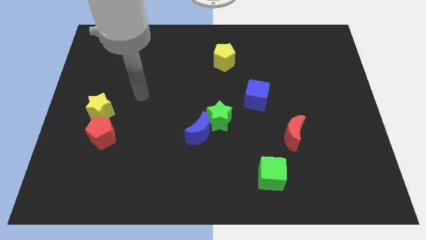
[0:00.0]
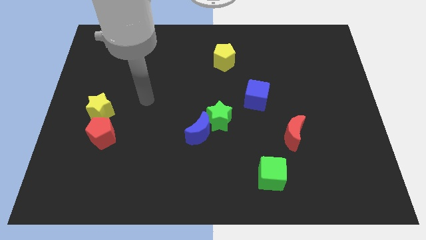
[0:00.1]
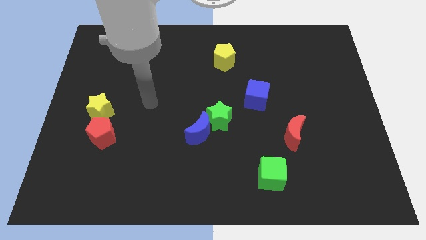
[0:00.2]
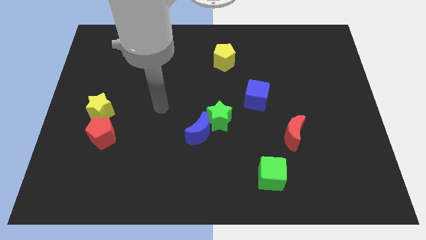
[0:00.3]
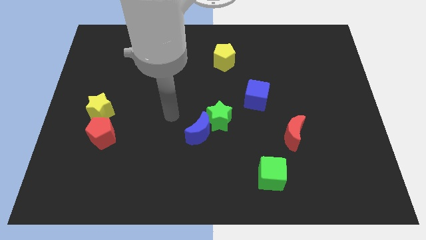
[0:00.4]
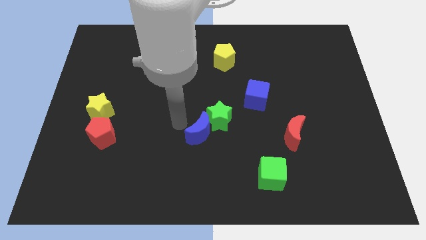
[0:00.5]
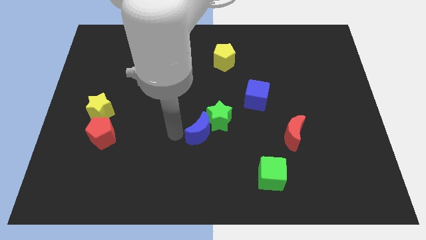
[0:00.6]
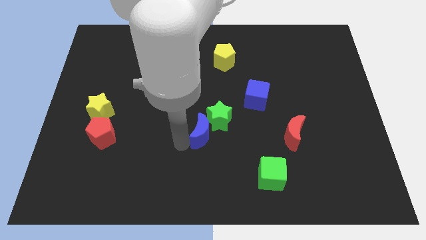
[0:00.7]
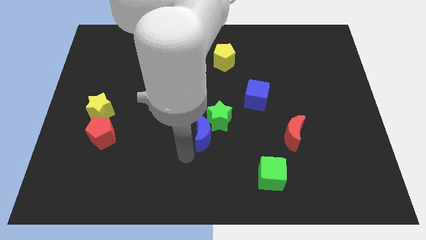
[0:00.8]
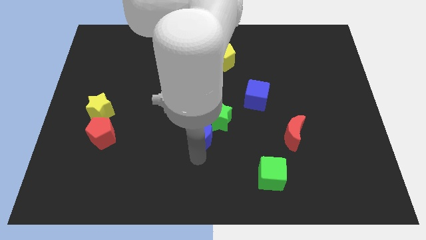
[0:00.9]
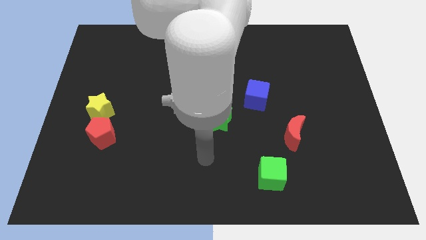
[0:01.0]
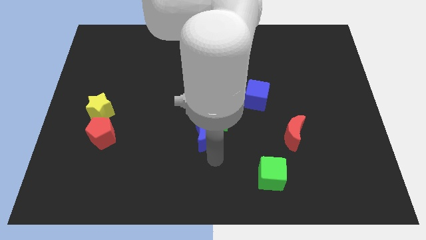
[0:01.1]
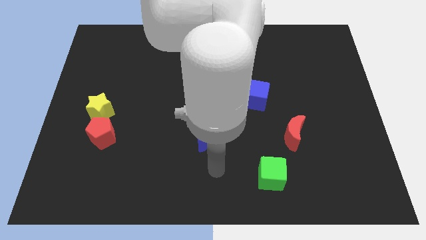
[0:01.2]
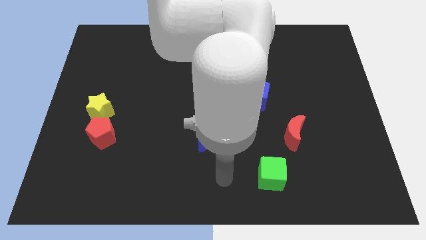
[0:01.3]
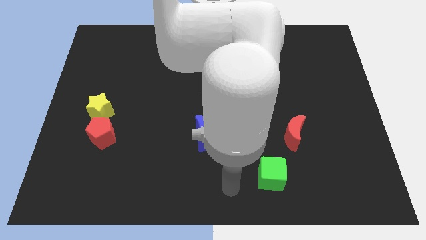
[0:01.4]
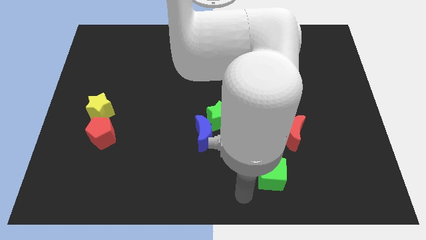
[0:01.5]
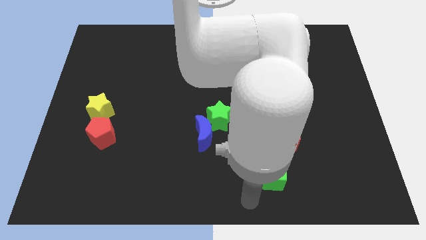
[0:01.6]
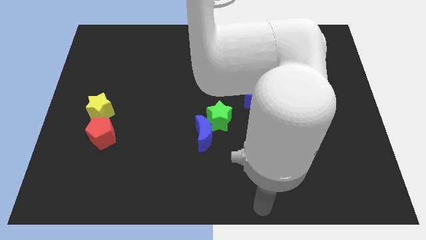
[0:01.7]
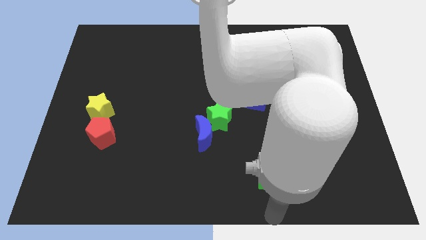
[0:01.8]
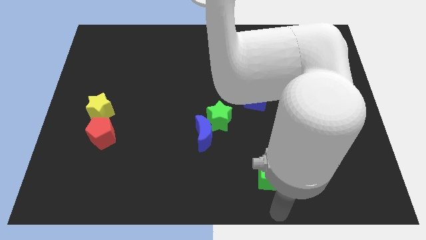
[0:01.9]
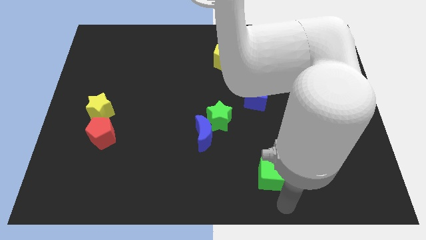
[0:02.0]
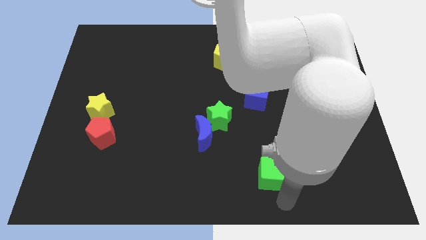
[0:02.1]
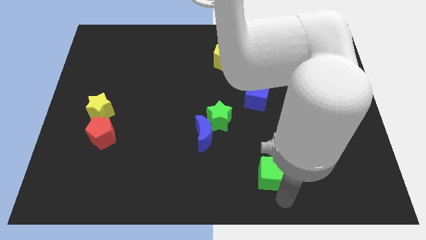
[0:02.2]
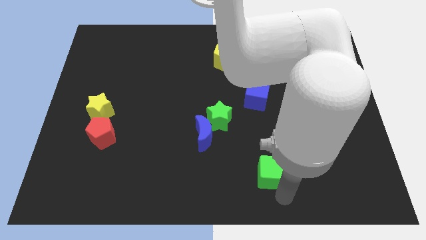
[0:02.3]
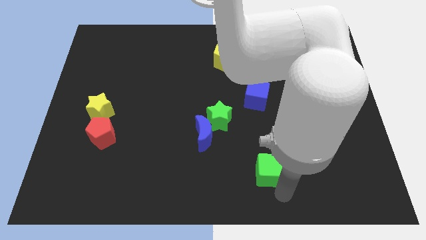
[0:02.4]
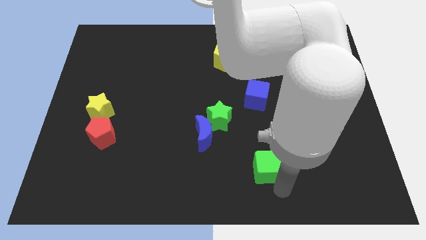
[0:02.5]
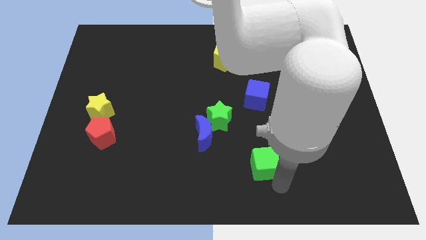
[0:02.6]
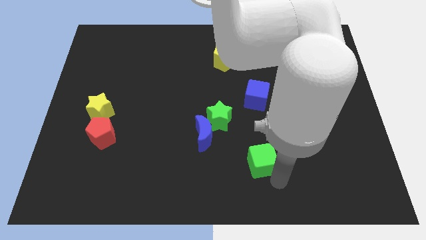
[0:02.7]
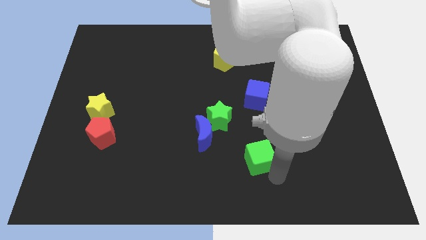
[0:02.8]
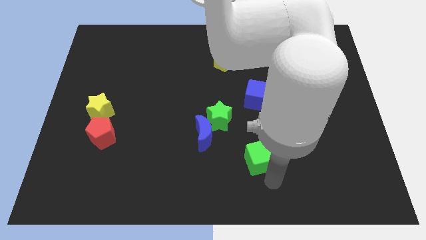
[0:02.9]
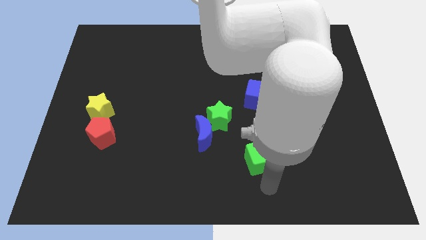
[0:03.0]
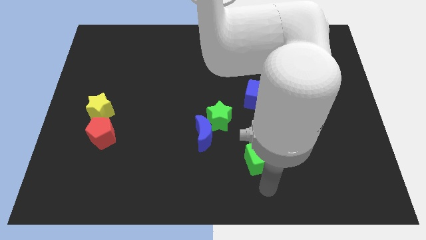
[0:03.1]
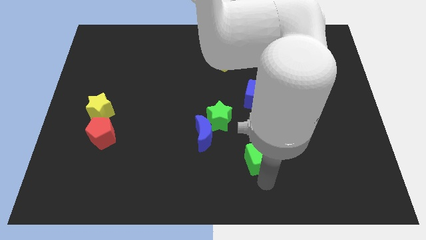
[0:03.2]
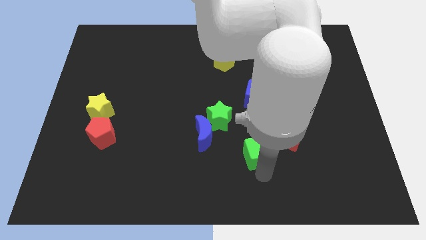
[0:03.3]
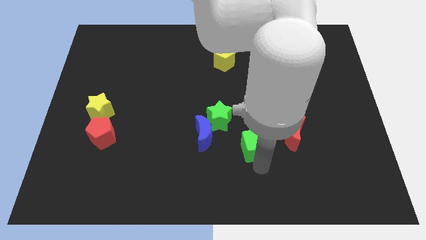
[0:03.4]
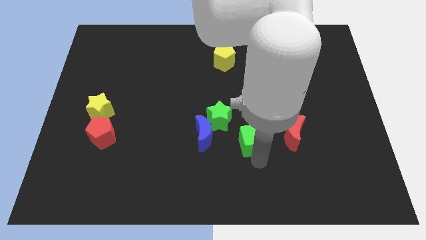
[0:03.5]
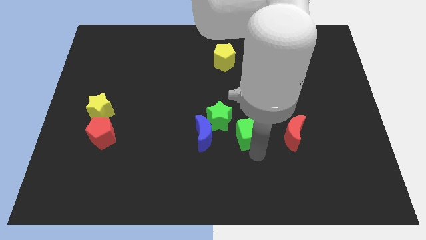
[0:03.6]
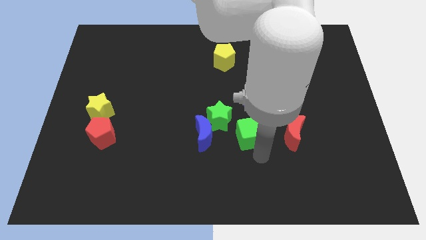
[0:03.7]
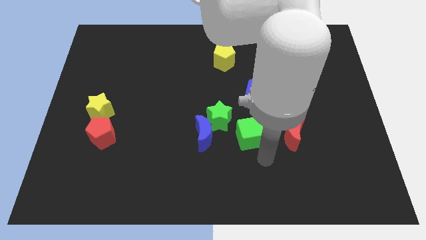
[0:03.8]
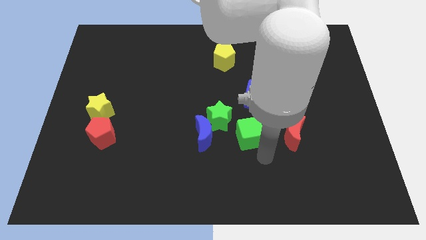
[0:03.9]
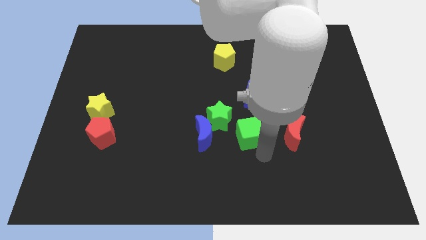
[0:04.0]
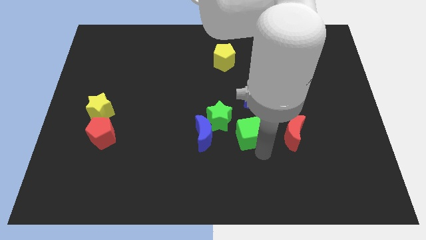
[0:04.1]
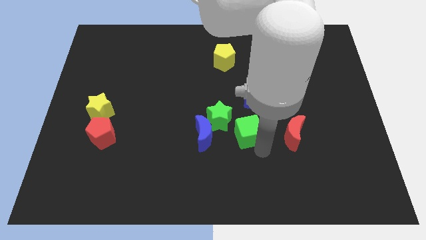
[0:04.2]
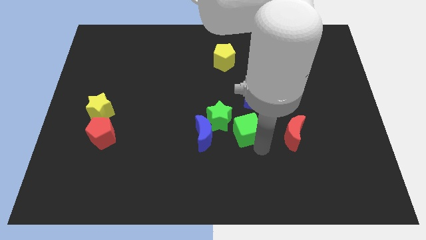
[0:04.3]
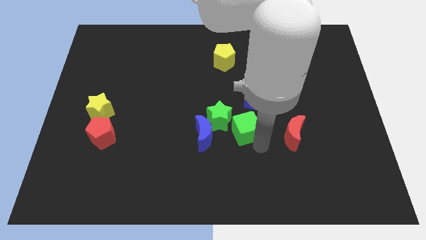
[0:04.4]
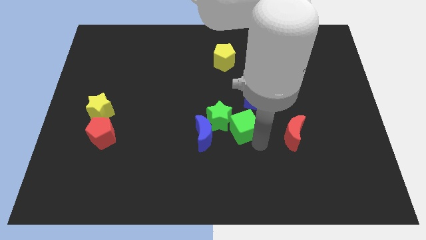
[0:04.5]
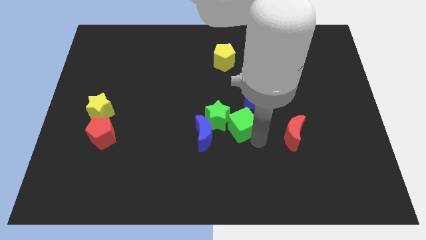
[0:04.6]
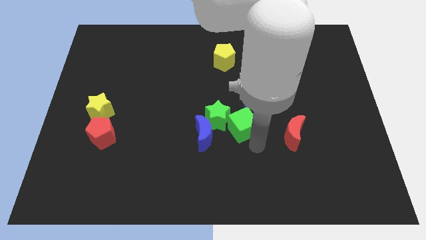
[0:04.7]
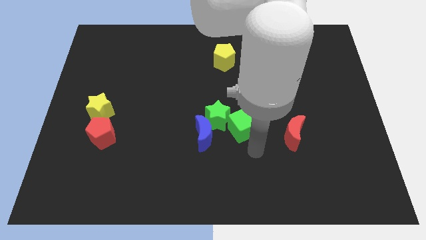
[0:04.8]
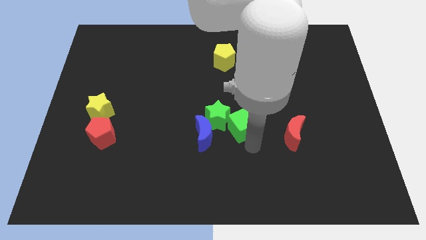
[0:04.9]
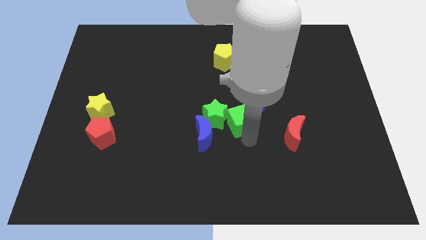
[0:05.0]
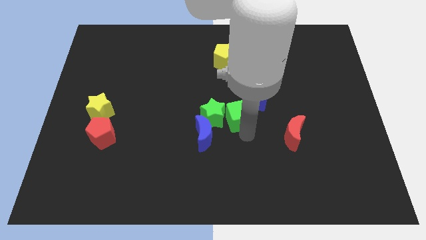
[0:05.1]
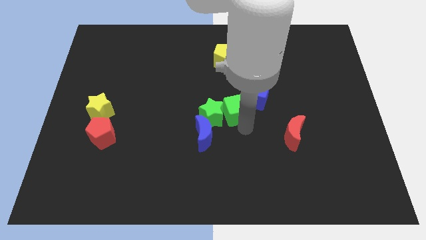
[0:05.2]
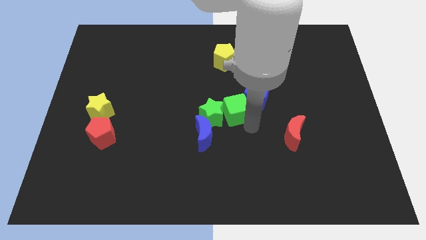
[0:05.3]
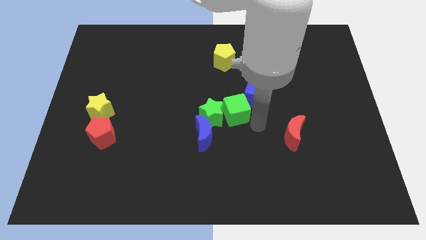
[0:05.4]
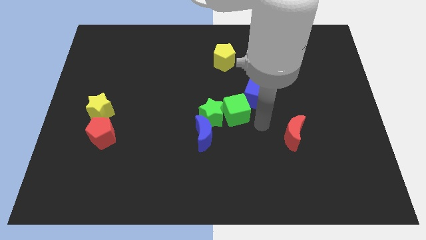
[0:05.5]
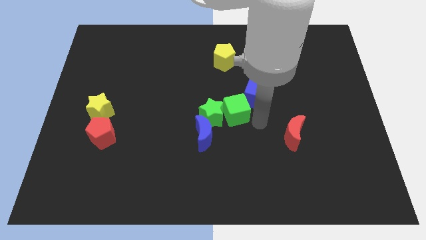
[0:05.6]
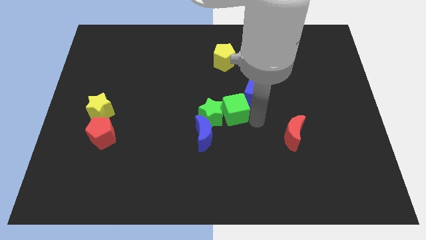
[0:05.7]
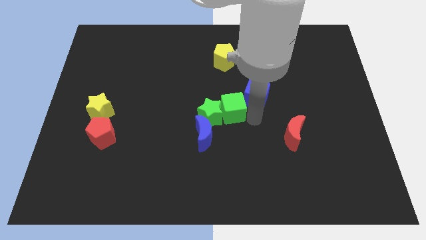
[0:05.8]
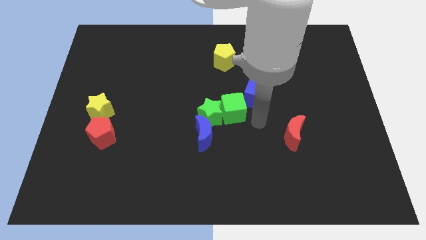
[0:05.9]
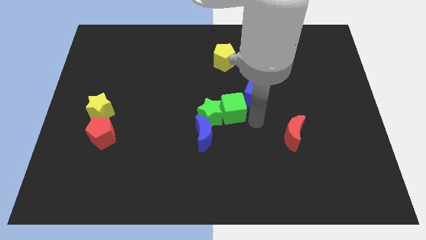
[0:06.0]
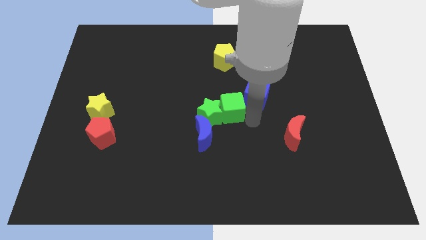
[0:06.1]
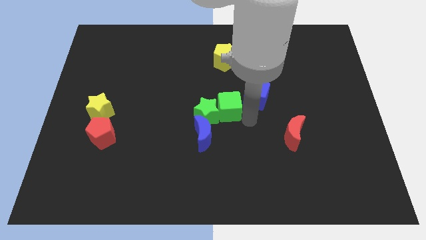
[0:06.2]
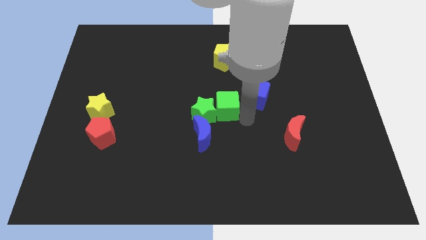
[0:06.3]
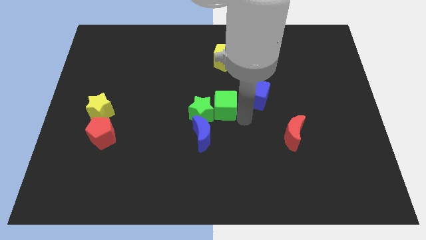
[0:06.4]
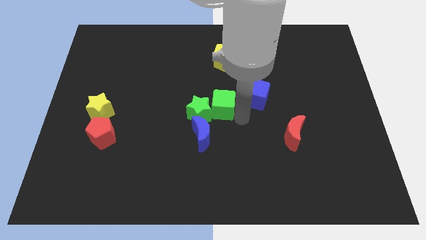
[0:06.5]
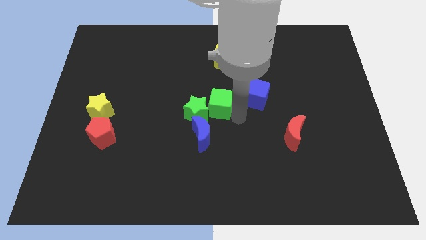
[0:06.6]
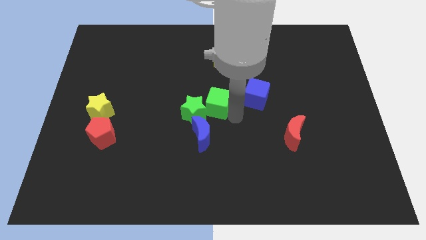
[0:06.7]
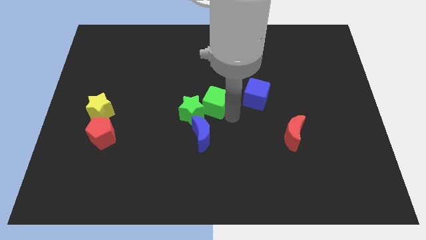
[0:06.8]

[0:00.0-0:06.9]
push the green cube diagonally upwards and to the left

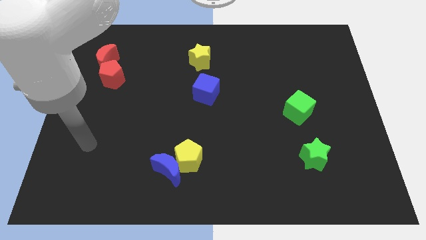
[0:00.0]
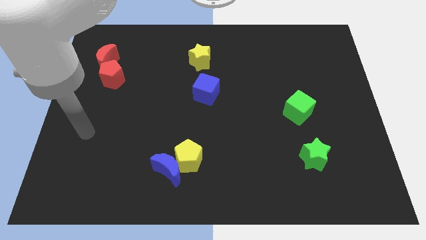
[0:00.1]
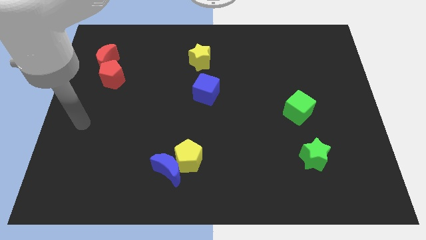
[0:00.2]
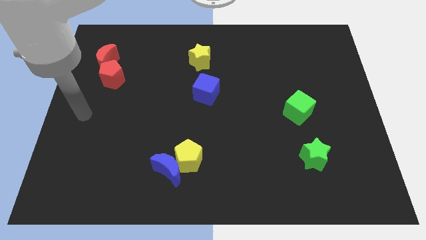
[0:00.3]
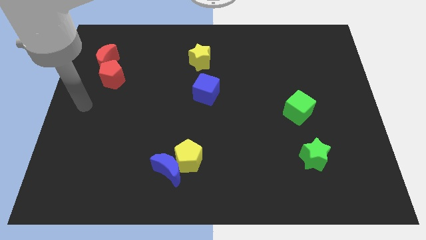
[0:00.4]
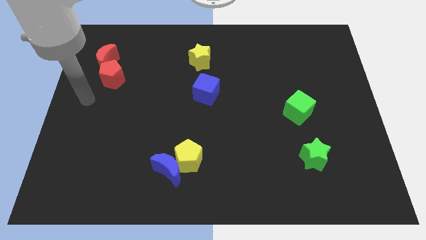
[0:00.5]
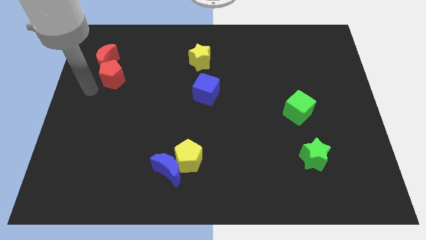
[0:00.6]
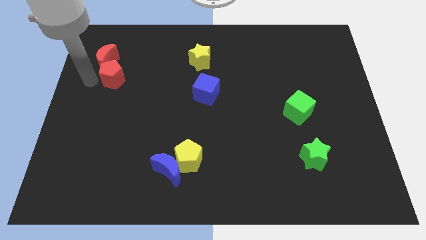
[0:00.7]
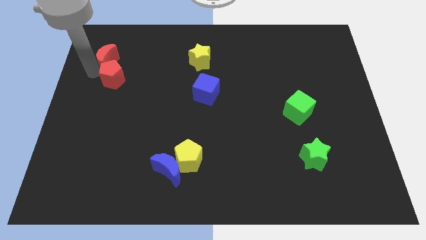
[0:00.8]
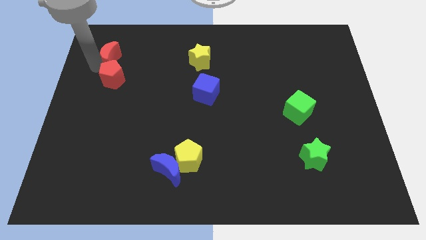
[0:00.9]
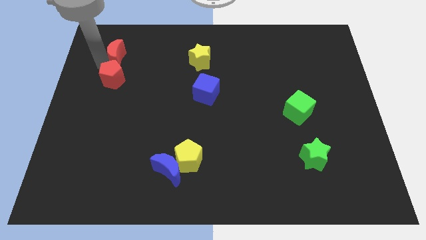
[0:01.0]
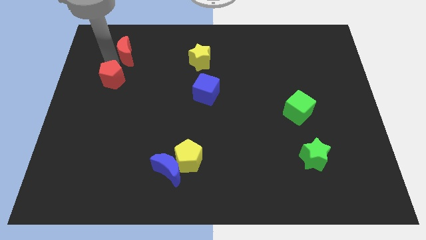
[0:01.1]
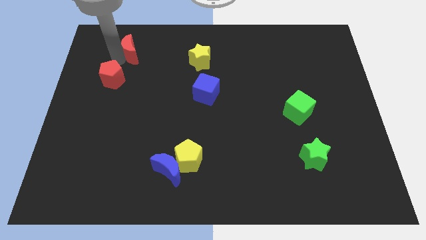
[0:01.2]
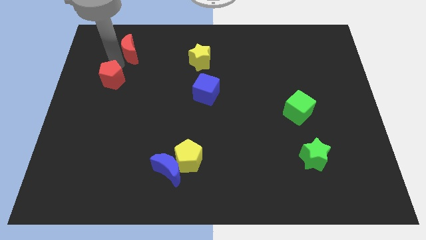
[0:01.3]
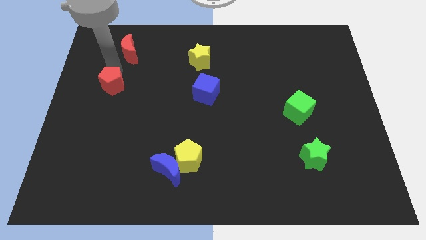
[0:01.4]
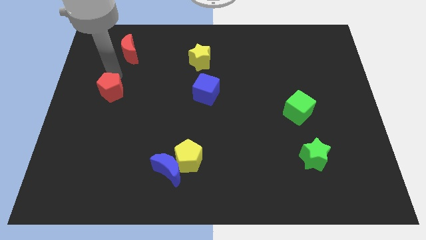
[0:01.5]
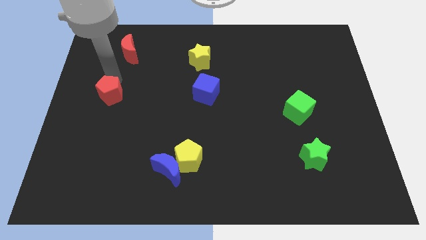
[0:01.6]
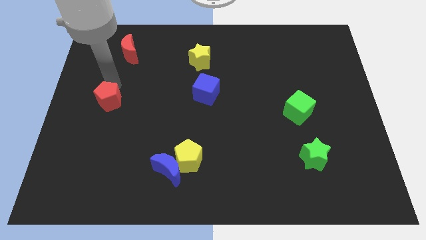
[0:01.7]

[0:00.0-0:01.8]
move the red pentagon somewhat down
